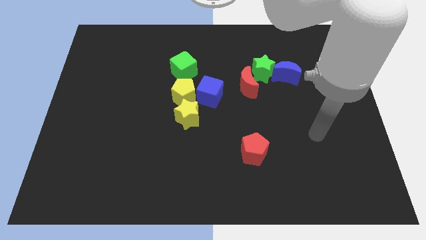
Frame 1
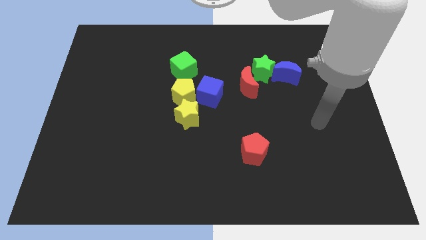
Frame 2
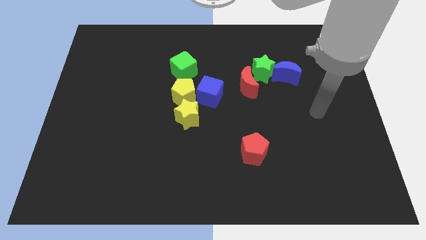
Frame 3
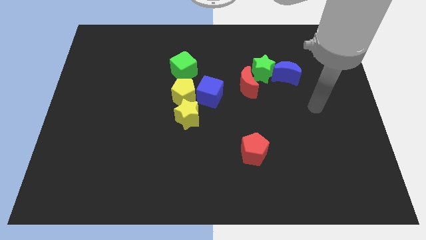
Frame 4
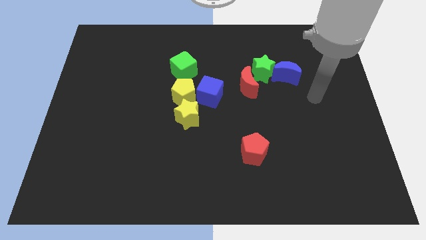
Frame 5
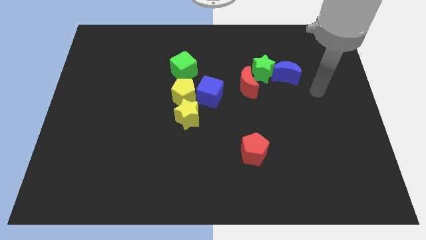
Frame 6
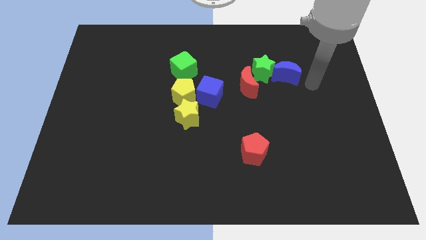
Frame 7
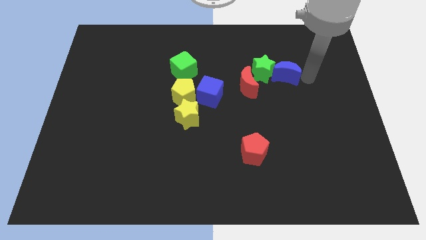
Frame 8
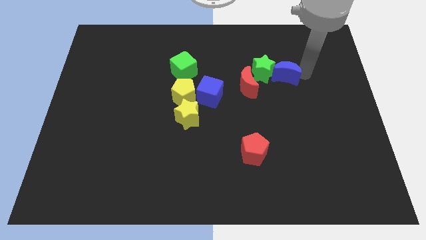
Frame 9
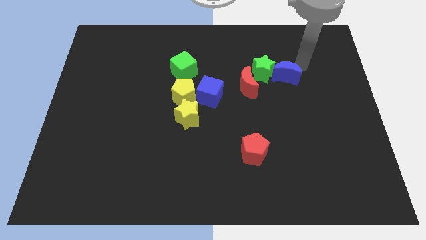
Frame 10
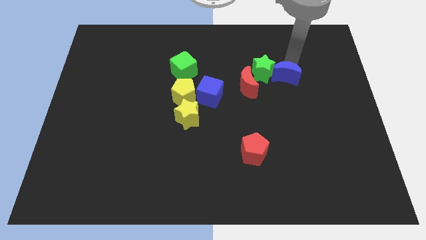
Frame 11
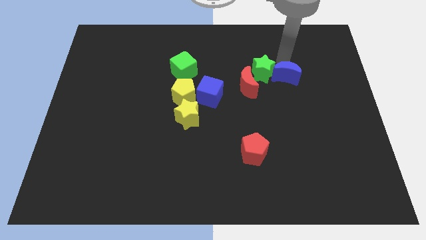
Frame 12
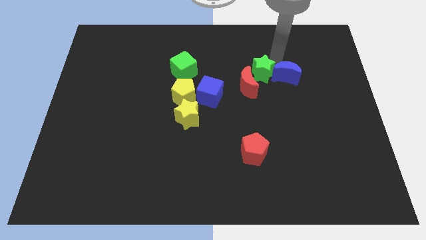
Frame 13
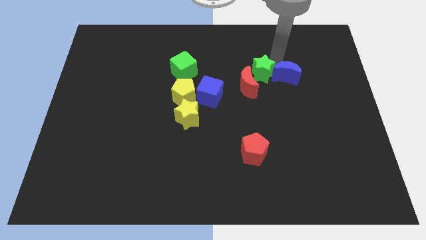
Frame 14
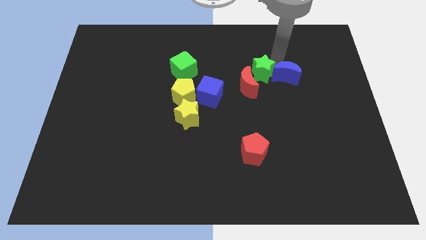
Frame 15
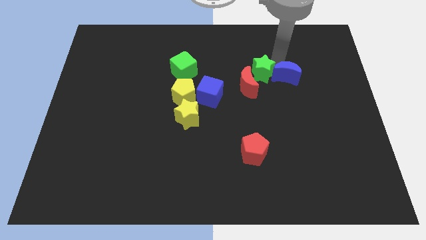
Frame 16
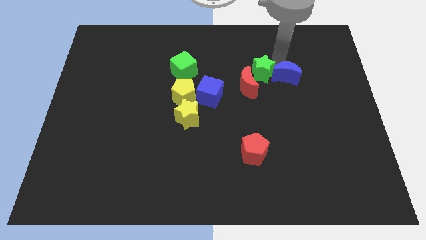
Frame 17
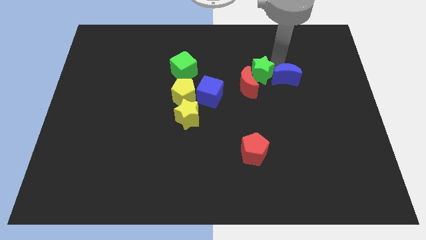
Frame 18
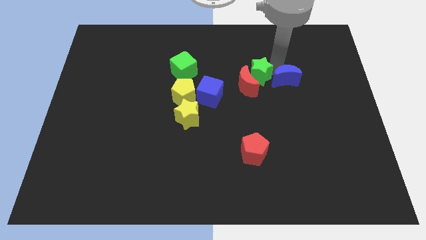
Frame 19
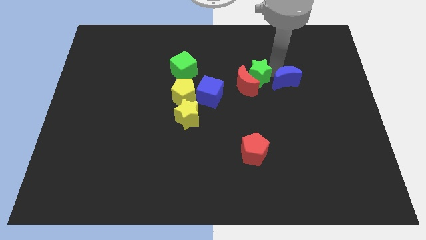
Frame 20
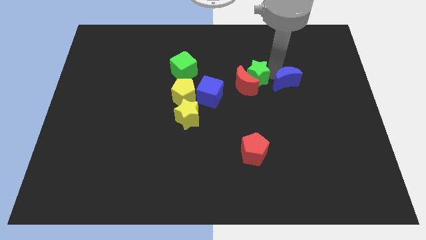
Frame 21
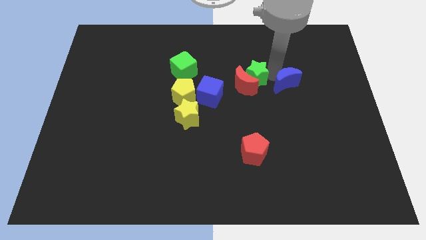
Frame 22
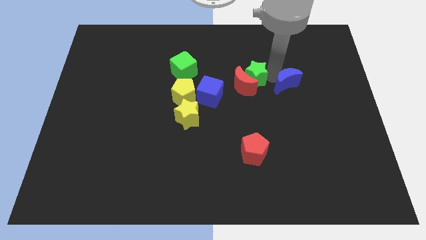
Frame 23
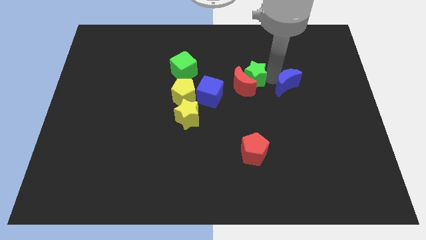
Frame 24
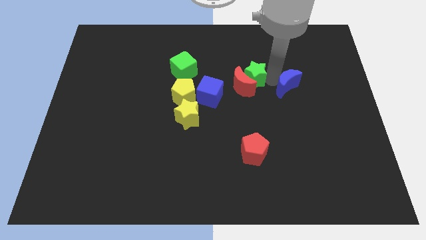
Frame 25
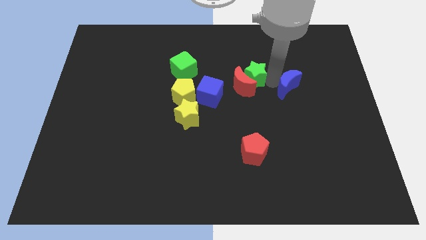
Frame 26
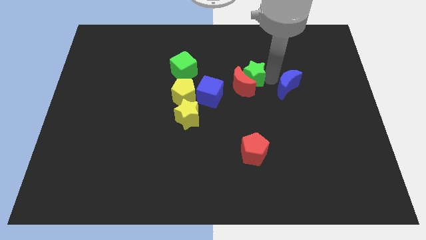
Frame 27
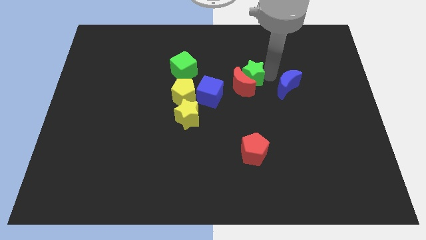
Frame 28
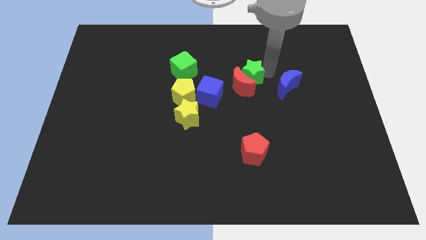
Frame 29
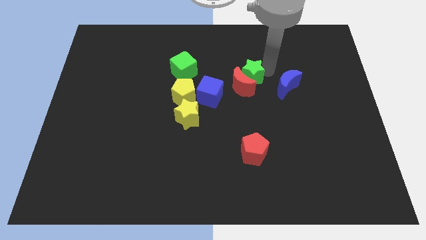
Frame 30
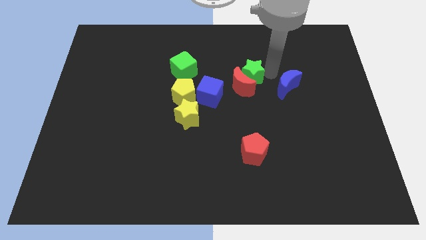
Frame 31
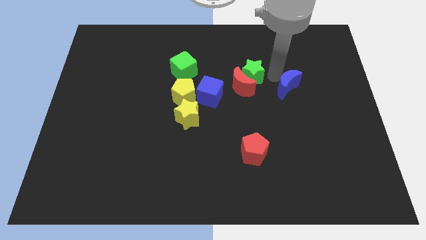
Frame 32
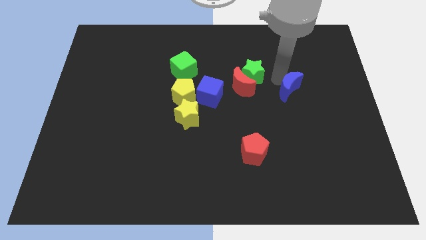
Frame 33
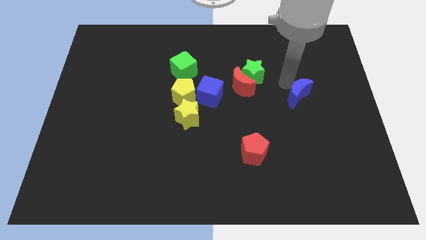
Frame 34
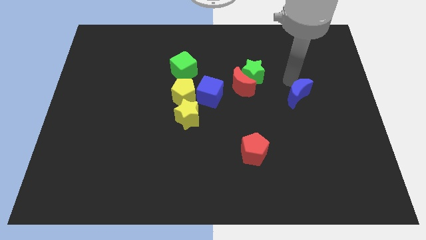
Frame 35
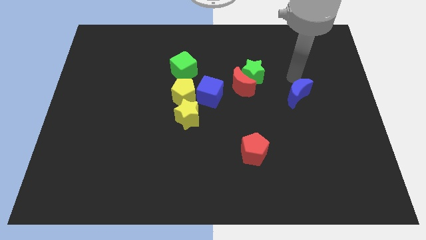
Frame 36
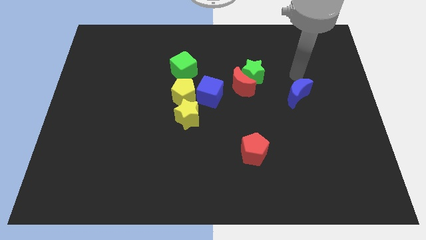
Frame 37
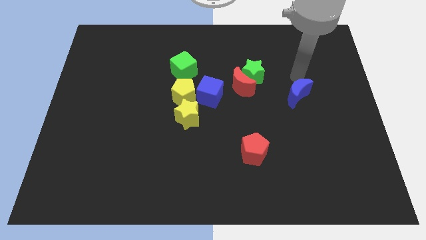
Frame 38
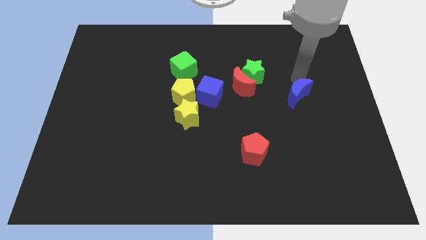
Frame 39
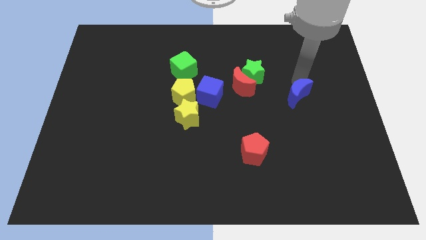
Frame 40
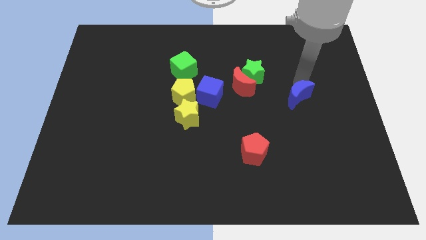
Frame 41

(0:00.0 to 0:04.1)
move the blue moon down somewhat

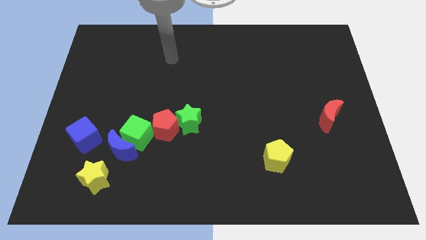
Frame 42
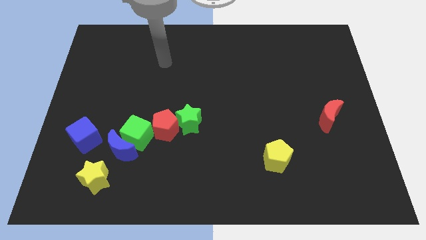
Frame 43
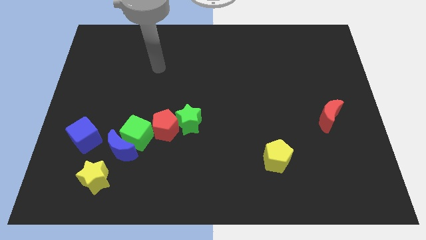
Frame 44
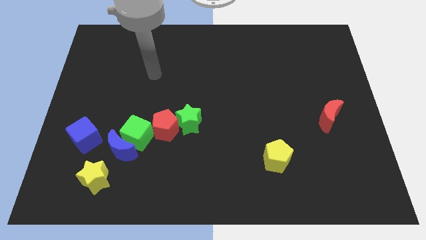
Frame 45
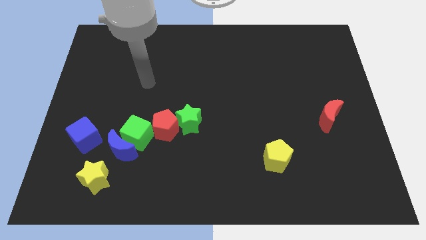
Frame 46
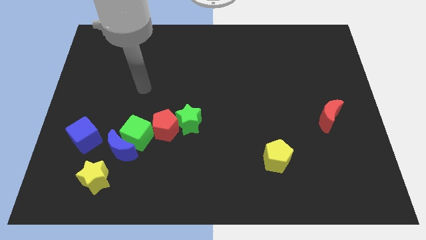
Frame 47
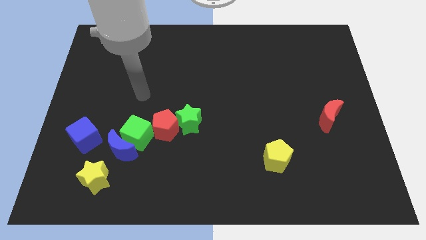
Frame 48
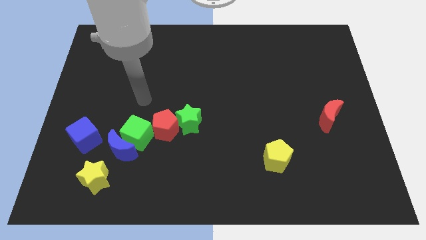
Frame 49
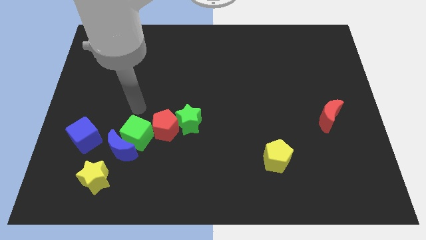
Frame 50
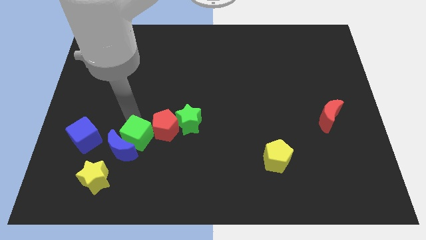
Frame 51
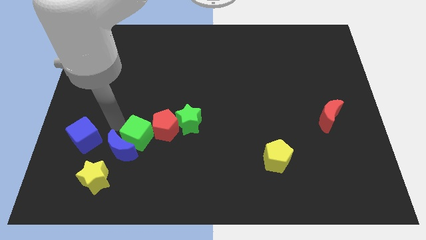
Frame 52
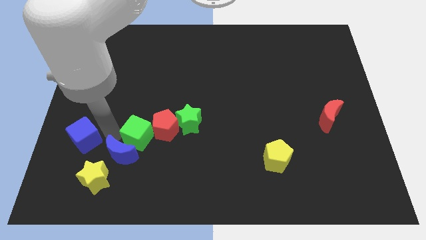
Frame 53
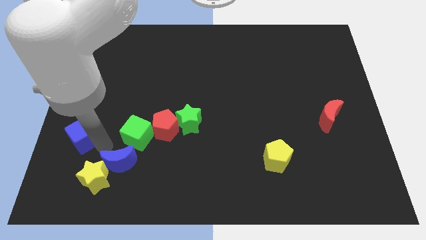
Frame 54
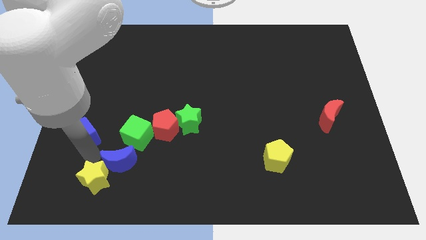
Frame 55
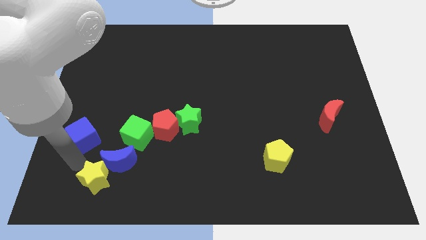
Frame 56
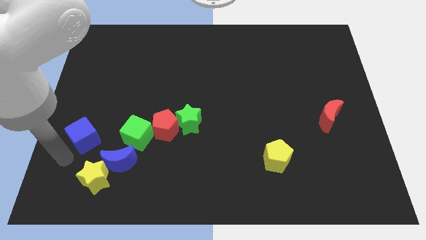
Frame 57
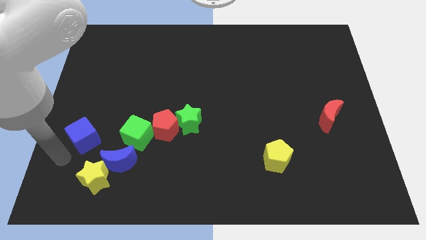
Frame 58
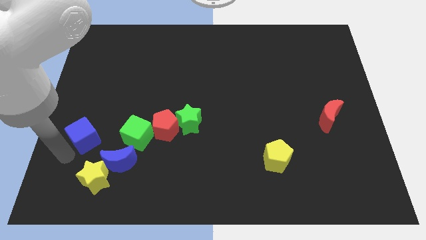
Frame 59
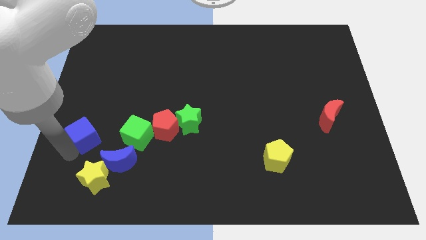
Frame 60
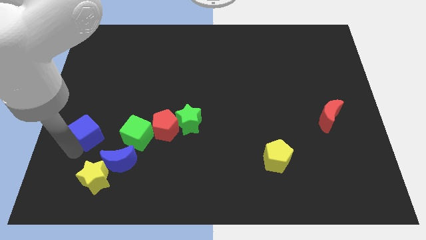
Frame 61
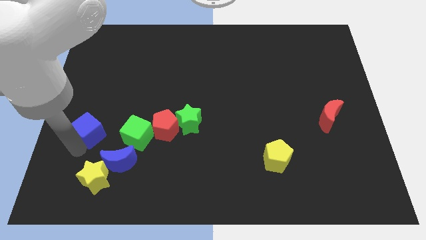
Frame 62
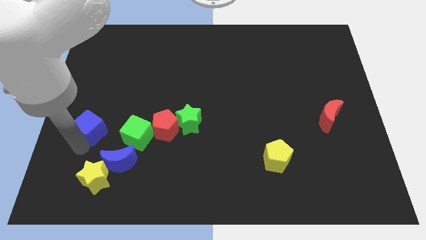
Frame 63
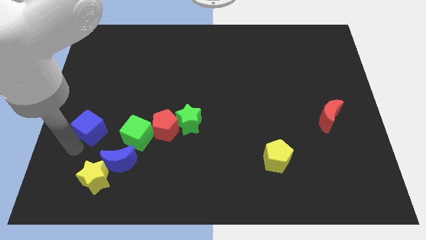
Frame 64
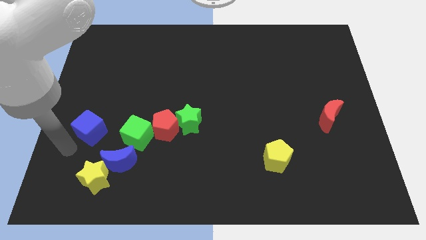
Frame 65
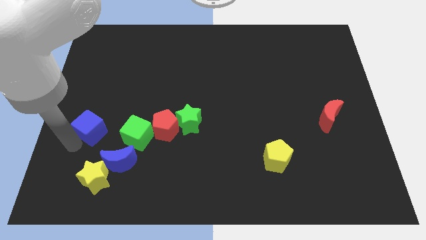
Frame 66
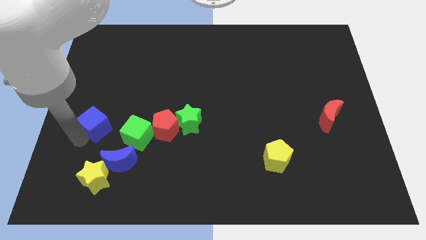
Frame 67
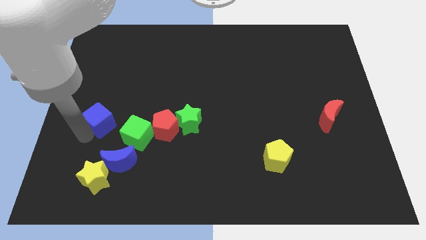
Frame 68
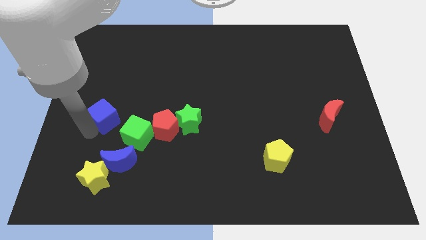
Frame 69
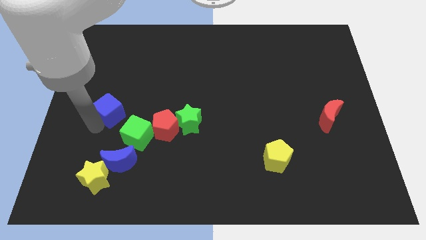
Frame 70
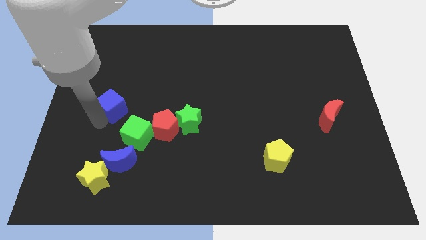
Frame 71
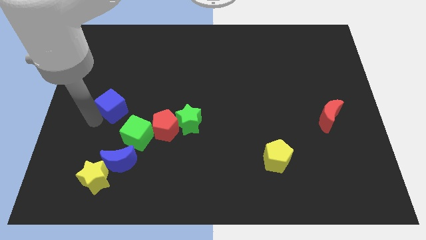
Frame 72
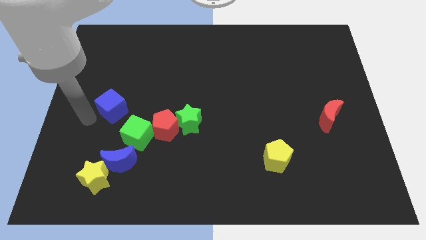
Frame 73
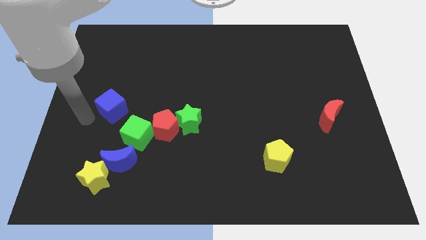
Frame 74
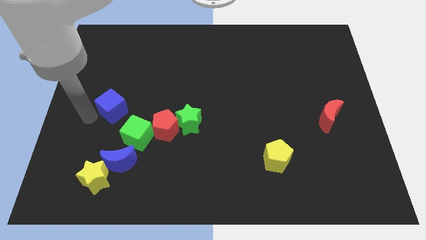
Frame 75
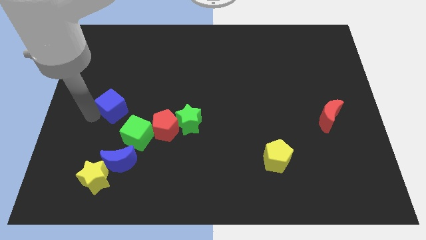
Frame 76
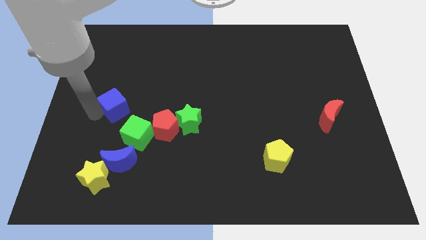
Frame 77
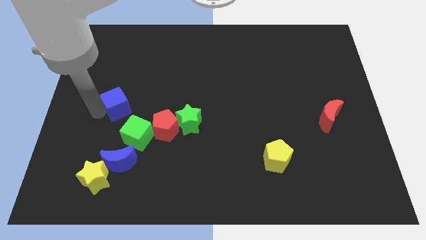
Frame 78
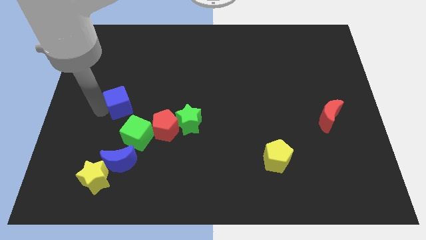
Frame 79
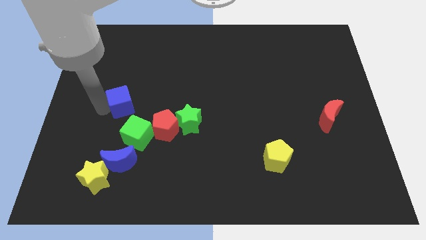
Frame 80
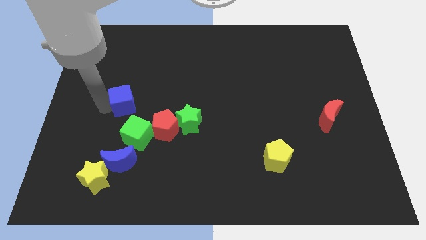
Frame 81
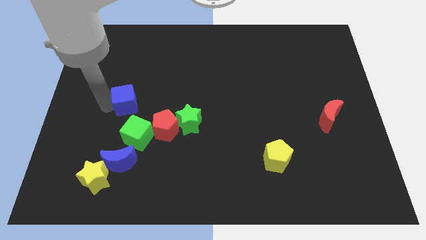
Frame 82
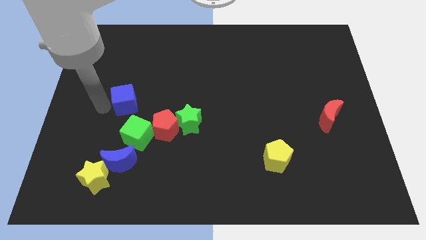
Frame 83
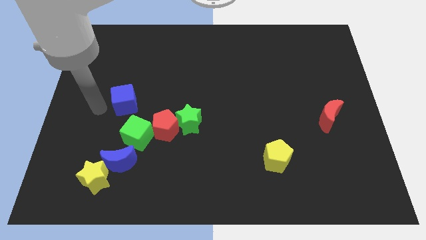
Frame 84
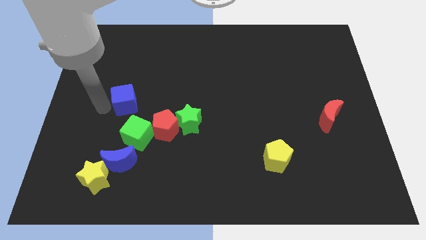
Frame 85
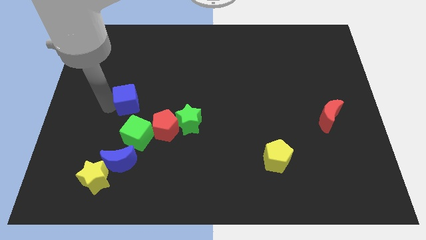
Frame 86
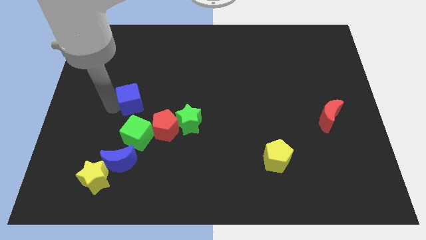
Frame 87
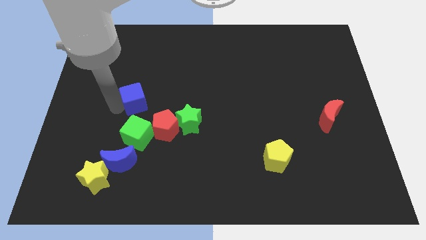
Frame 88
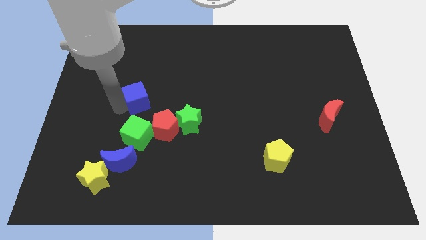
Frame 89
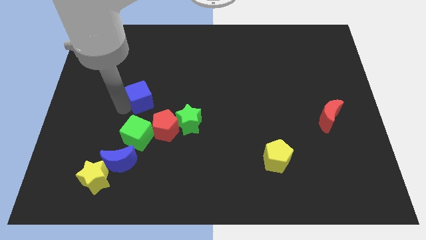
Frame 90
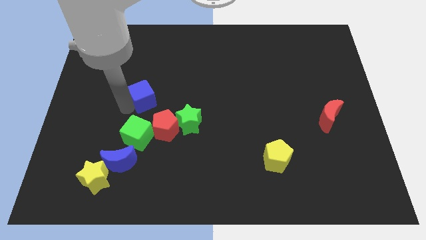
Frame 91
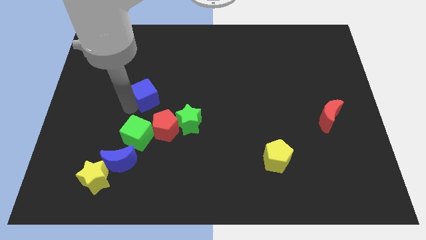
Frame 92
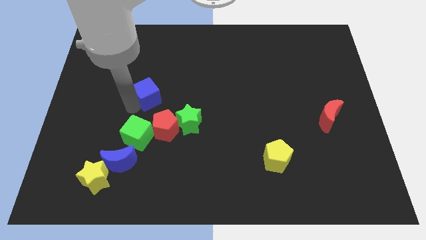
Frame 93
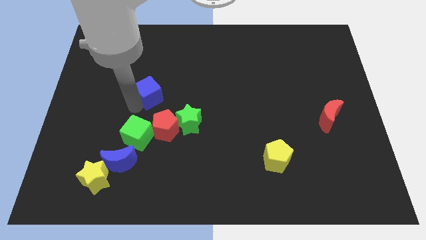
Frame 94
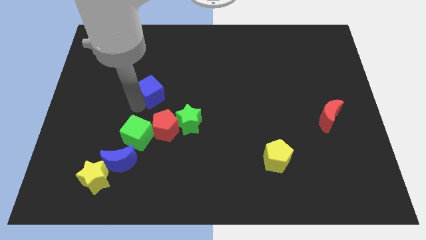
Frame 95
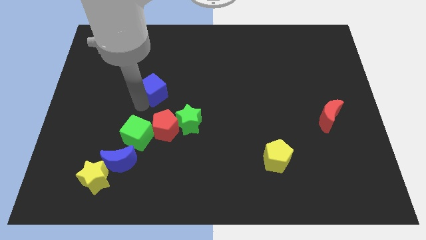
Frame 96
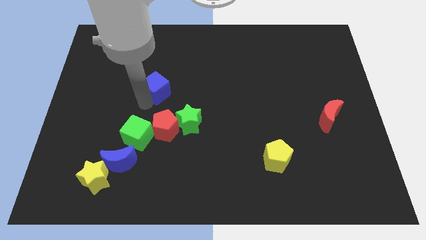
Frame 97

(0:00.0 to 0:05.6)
slide the blue cube diagonally up and right
